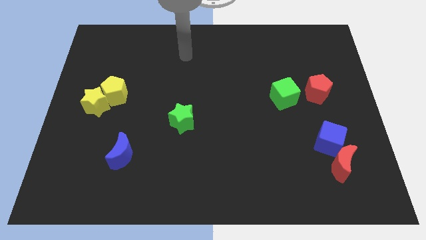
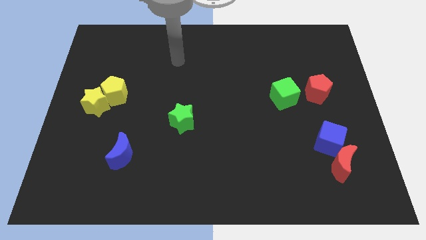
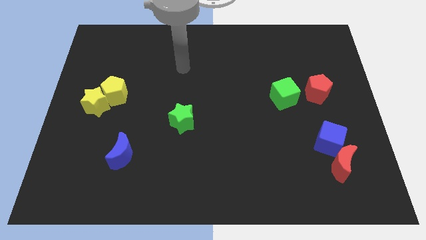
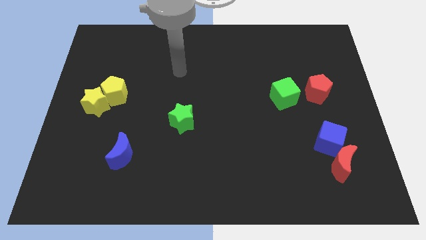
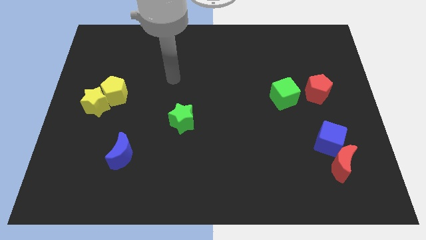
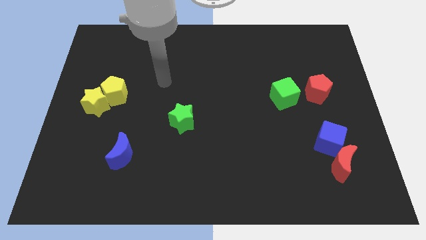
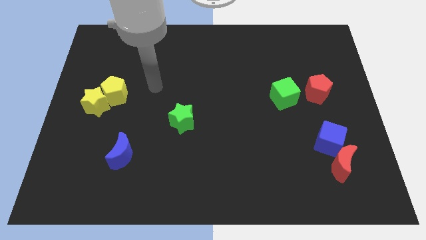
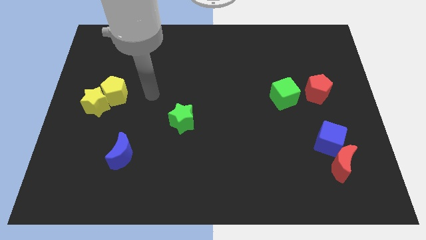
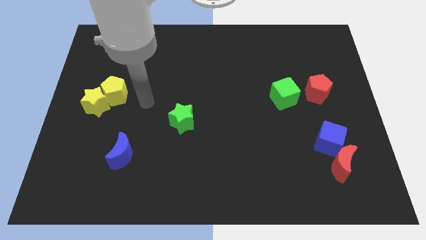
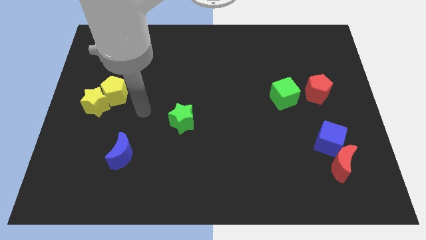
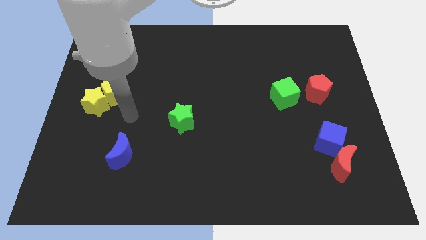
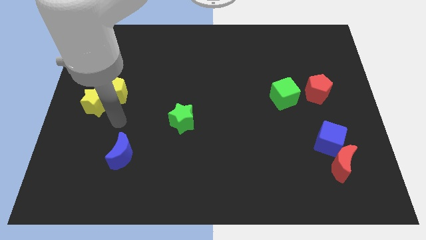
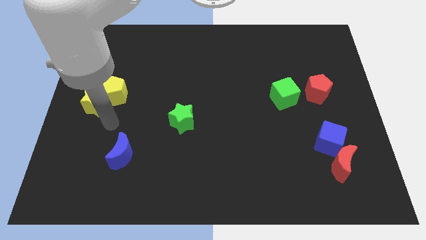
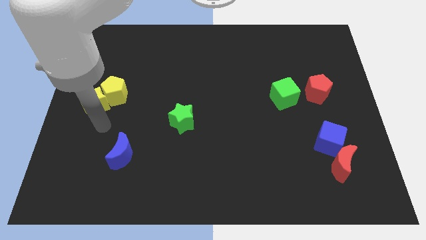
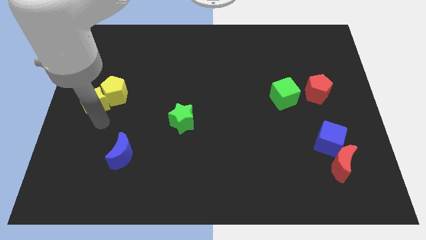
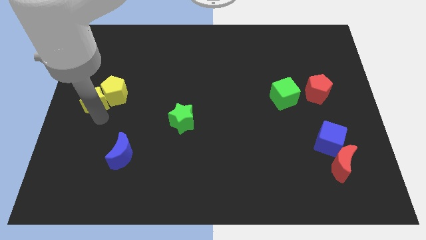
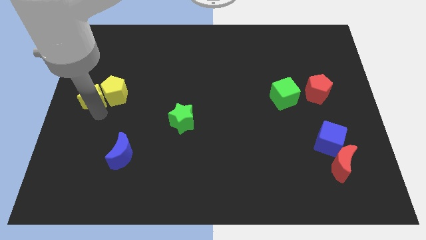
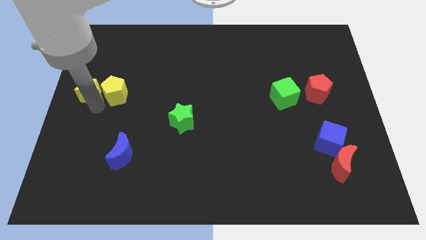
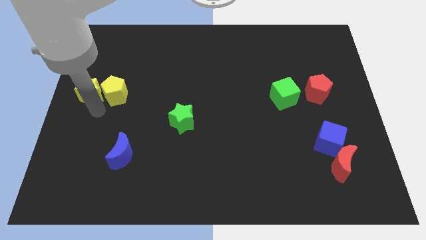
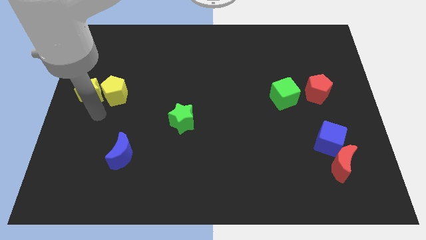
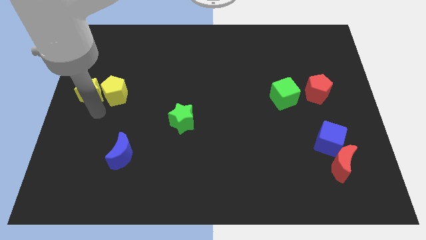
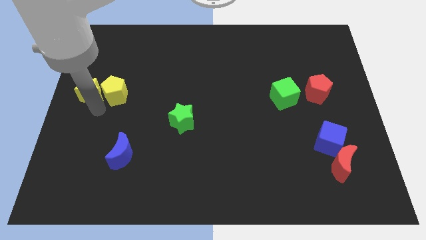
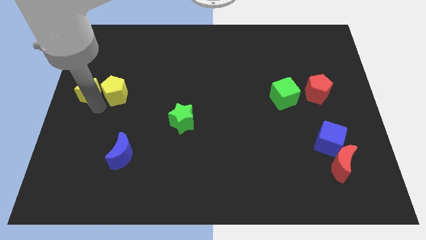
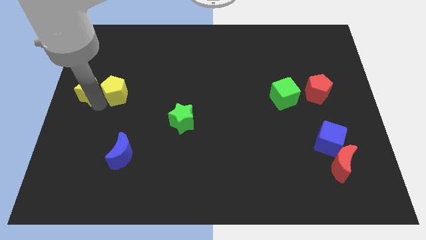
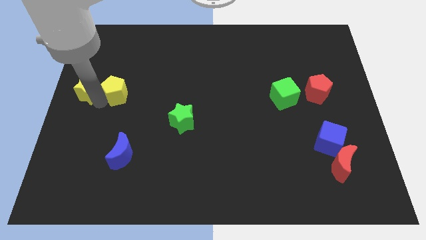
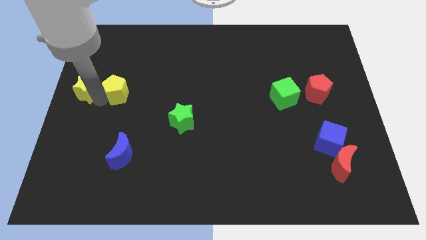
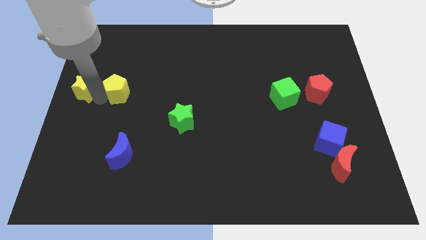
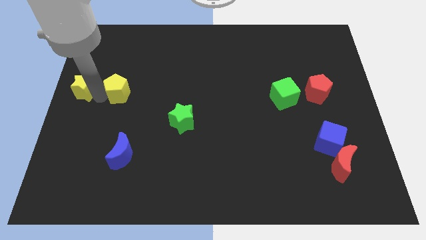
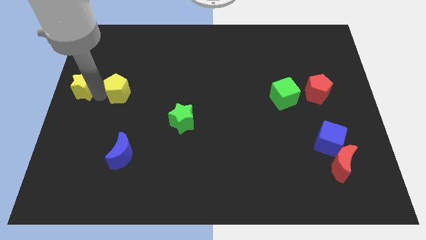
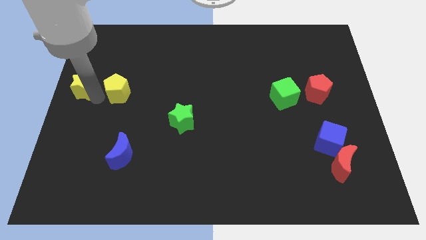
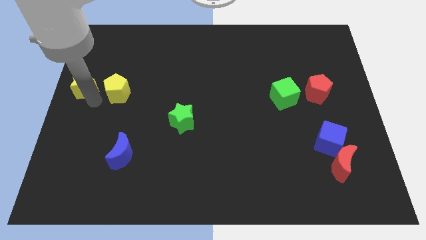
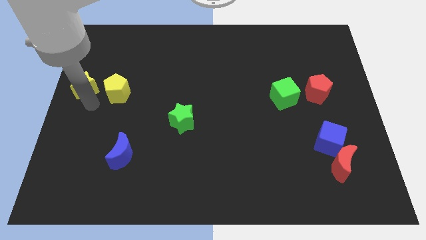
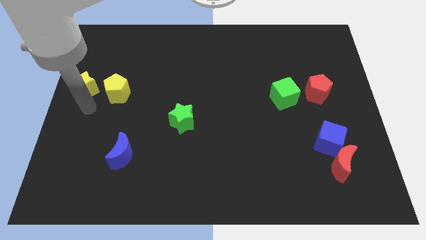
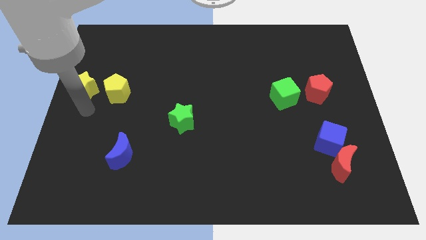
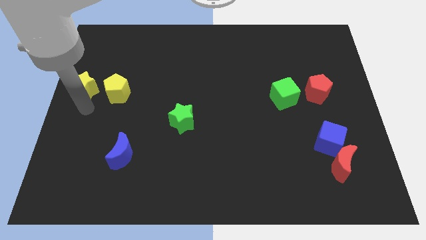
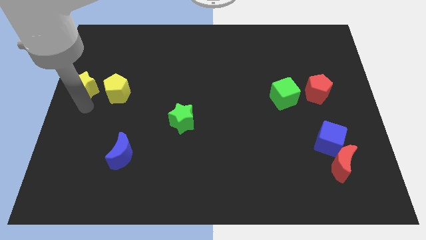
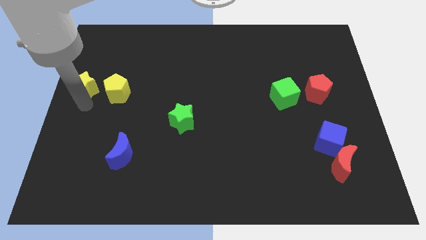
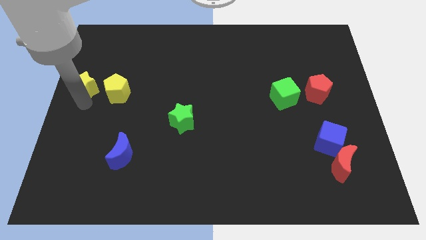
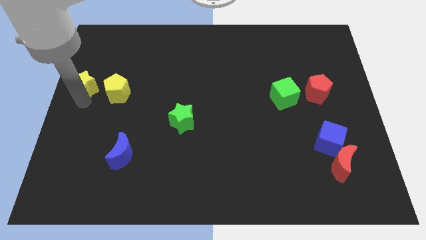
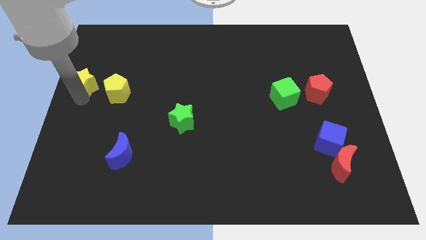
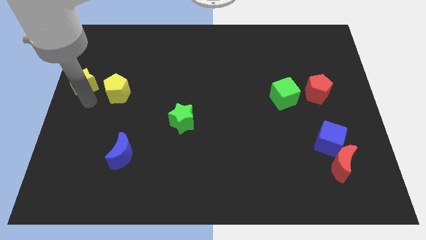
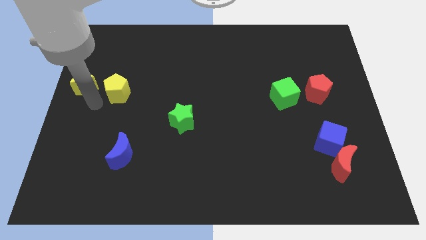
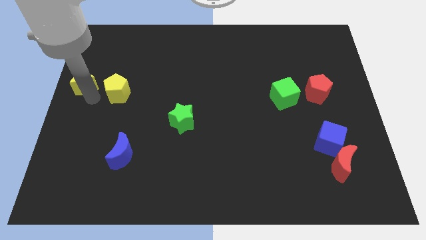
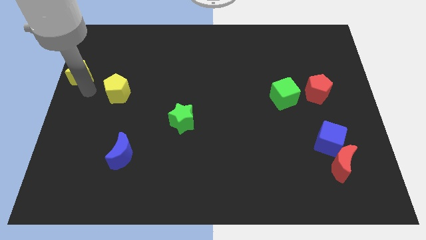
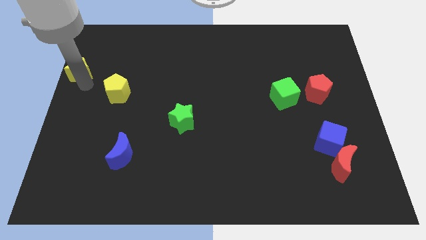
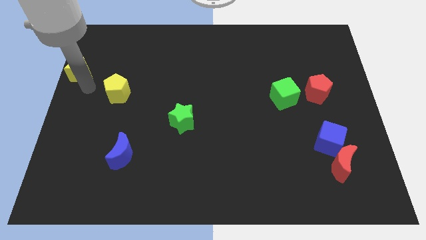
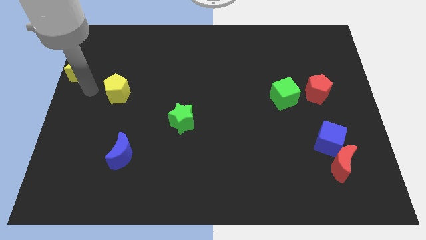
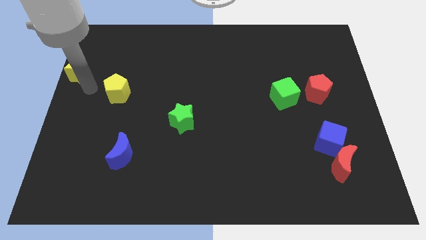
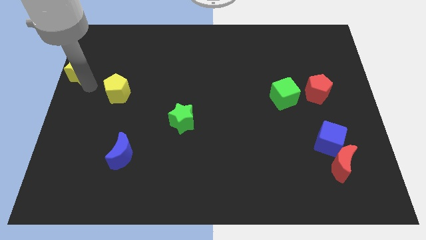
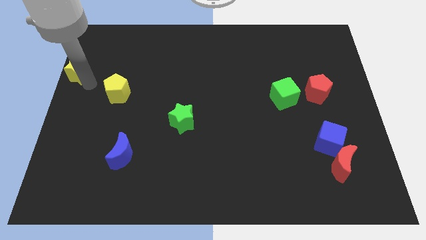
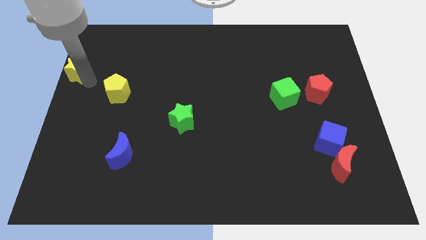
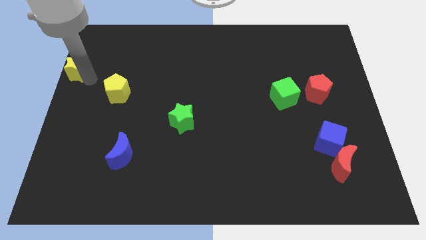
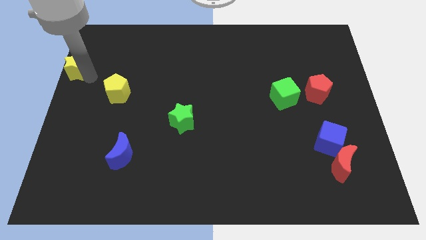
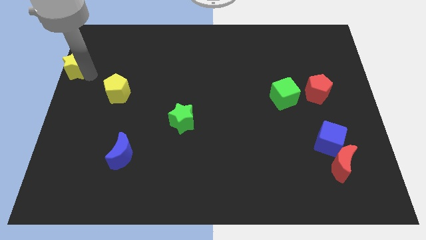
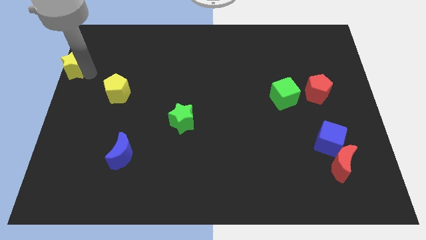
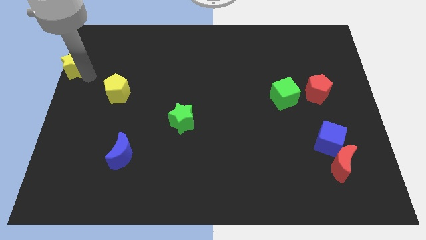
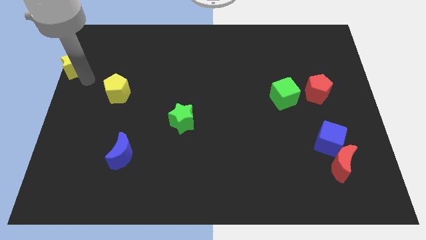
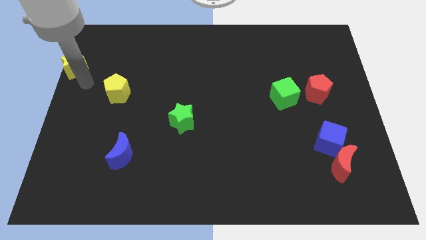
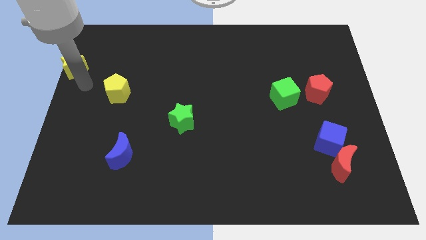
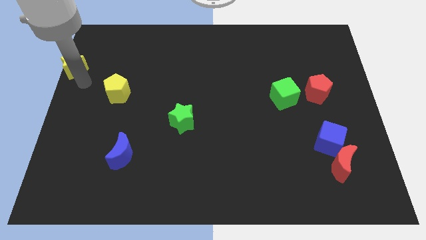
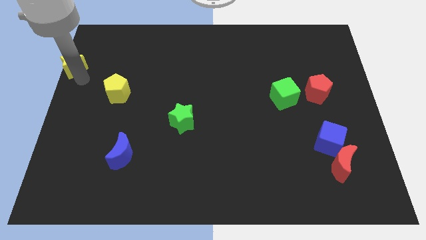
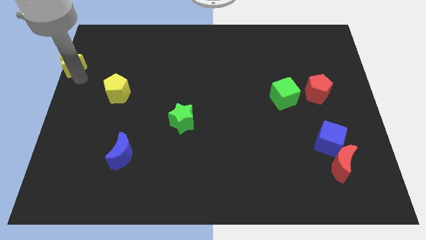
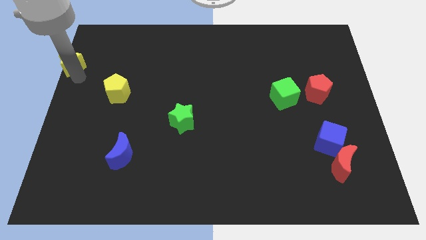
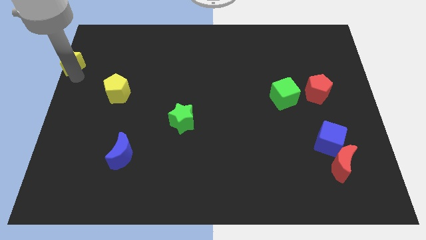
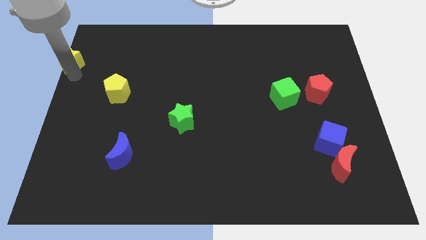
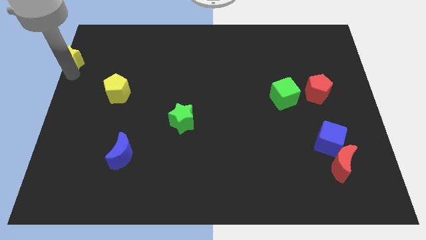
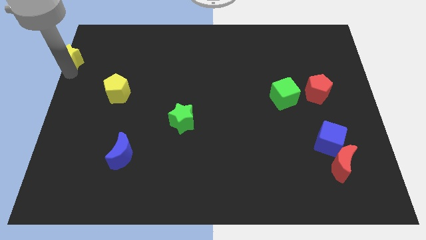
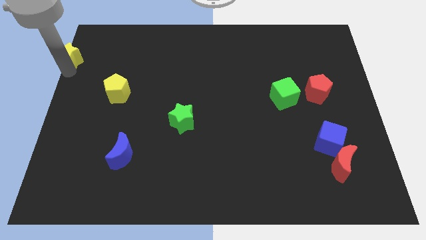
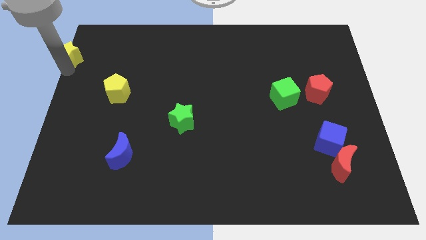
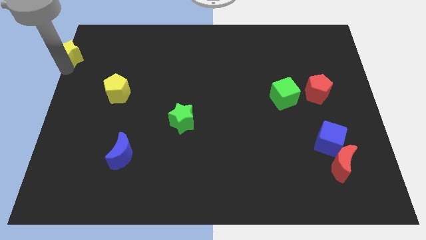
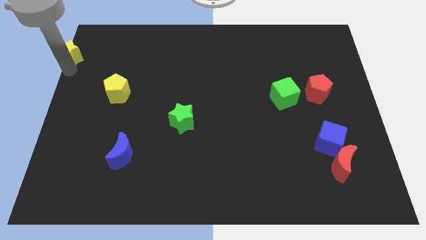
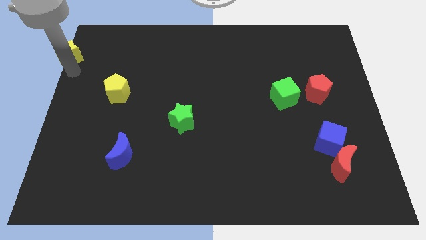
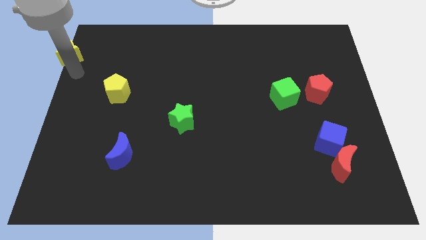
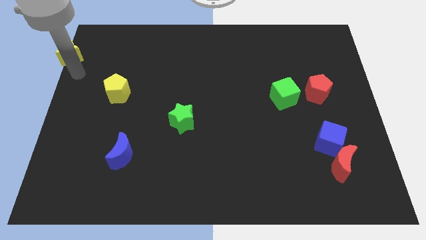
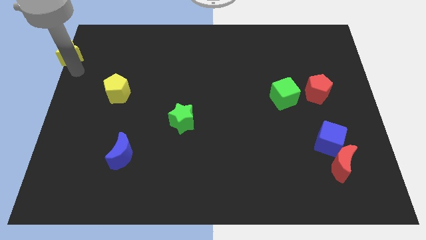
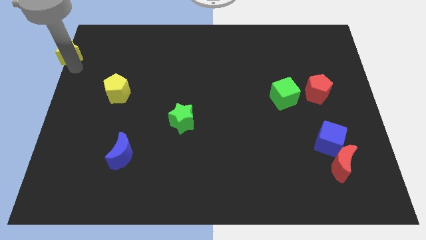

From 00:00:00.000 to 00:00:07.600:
push the yellow star to the top left
